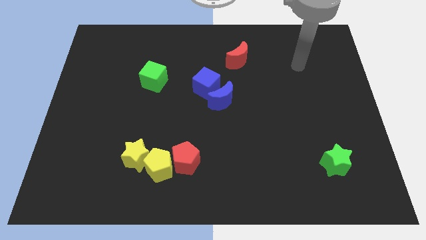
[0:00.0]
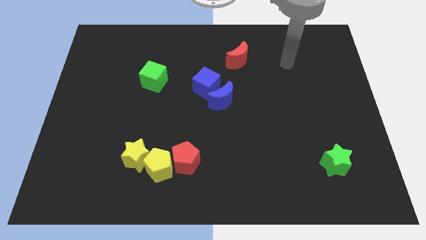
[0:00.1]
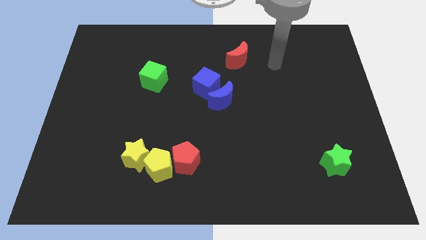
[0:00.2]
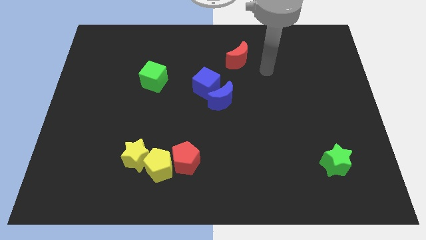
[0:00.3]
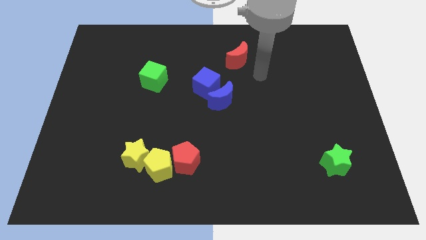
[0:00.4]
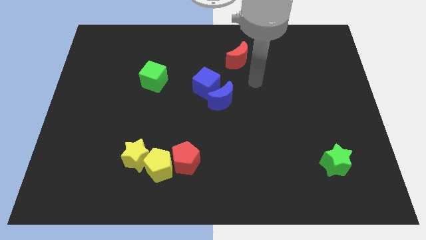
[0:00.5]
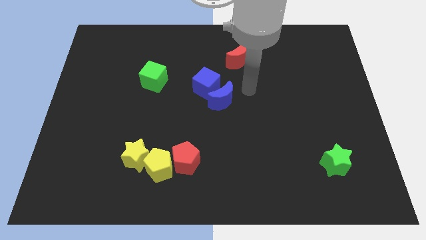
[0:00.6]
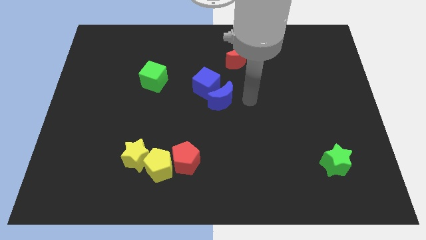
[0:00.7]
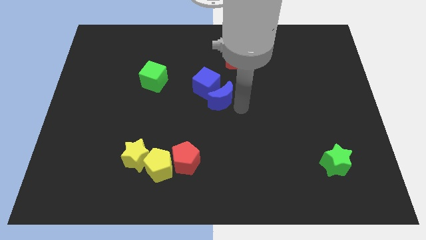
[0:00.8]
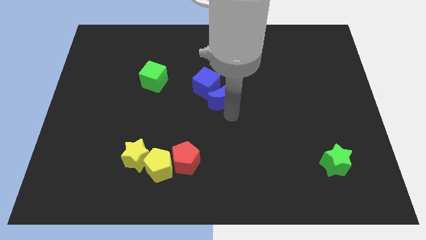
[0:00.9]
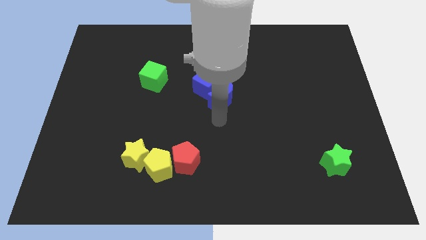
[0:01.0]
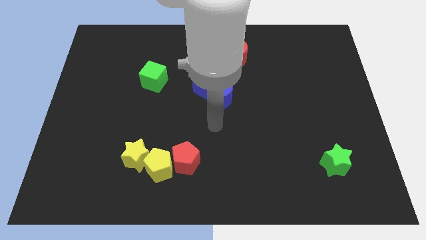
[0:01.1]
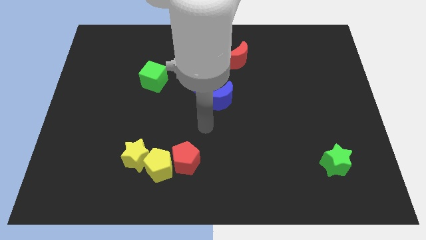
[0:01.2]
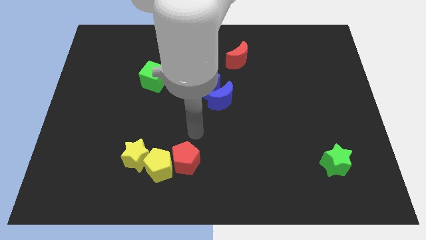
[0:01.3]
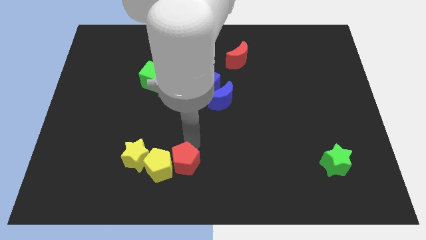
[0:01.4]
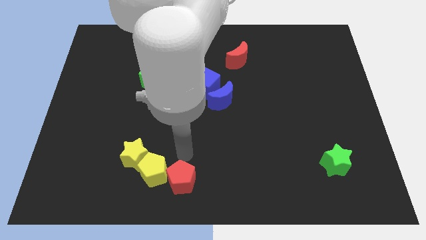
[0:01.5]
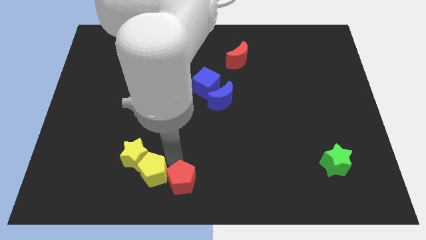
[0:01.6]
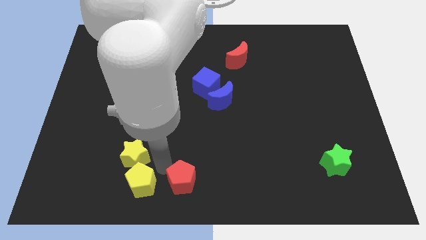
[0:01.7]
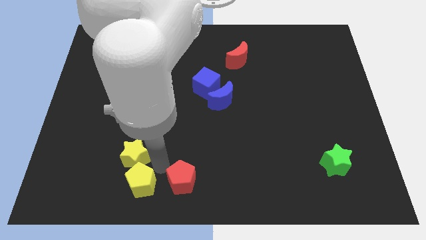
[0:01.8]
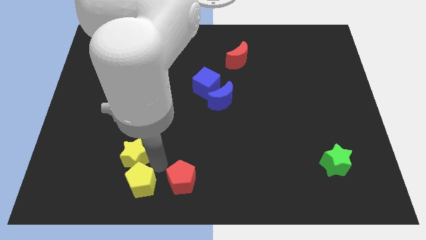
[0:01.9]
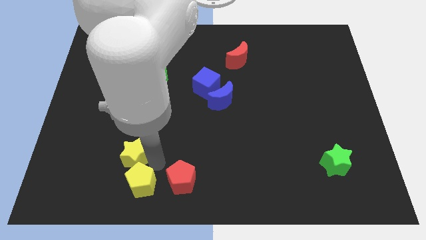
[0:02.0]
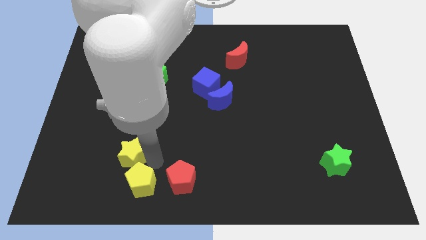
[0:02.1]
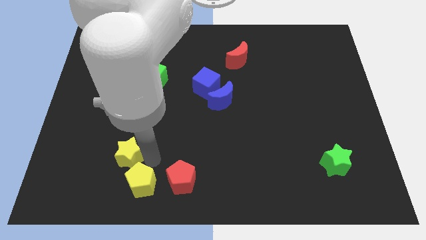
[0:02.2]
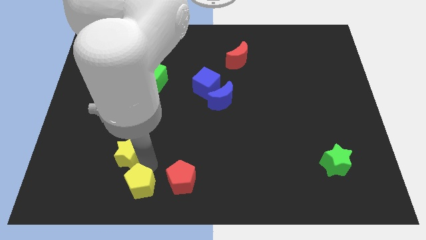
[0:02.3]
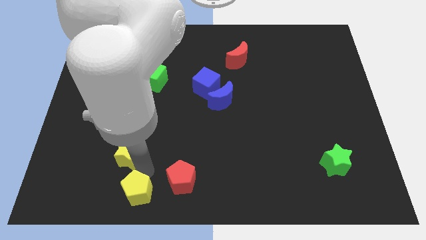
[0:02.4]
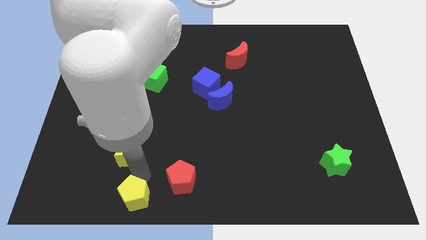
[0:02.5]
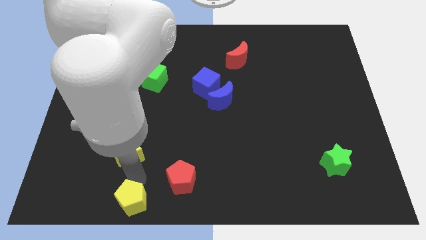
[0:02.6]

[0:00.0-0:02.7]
separate the yellow star from the yellow pentagon

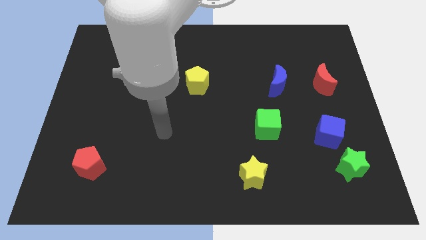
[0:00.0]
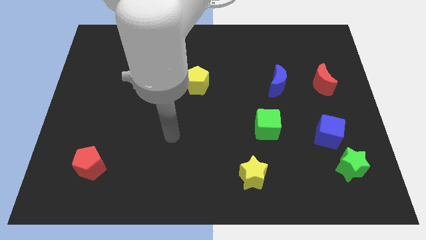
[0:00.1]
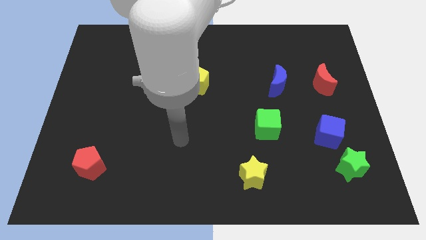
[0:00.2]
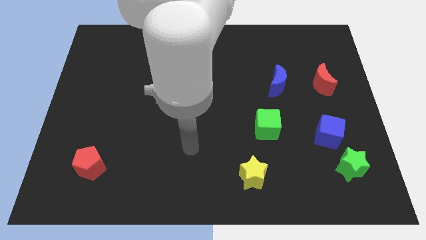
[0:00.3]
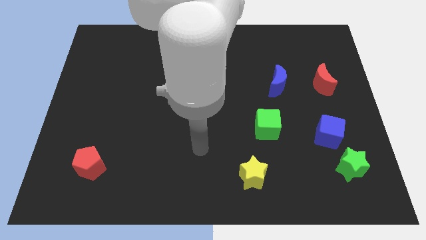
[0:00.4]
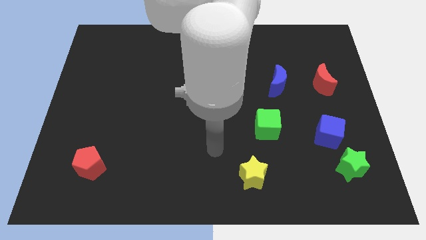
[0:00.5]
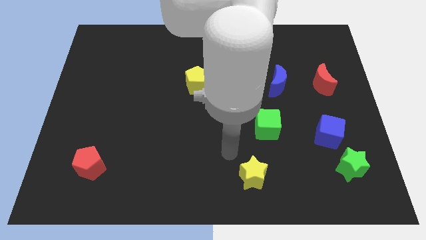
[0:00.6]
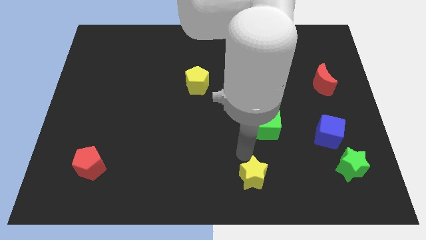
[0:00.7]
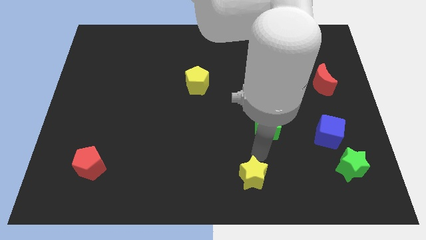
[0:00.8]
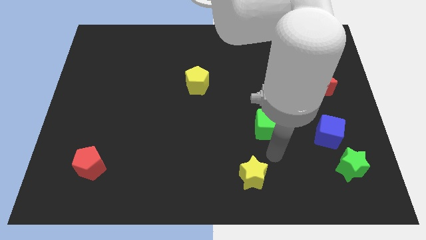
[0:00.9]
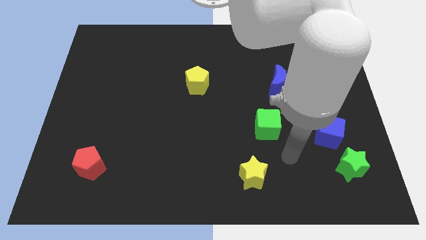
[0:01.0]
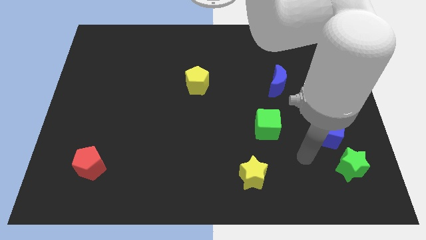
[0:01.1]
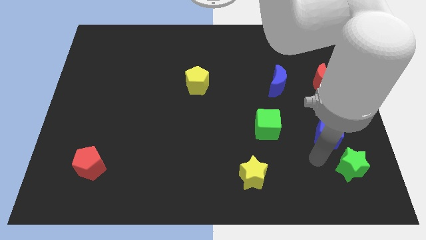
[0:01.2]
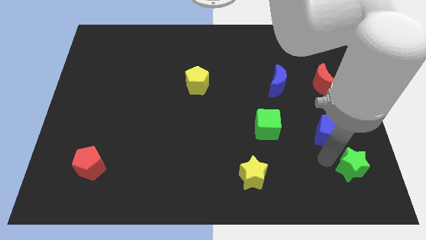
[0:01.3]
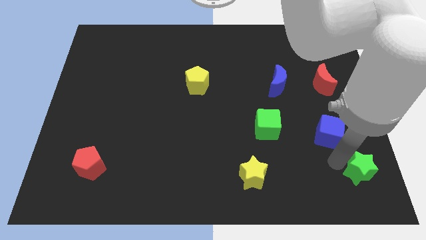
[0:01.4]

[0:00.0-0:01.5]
pull the blue cube apart from the green star

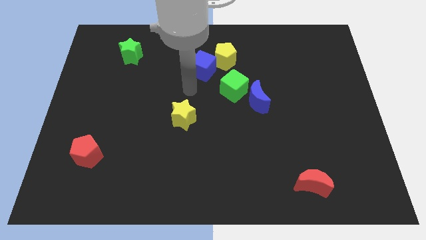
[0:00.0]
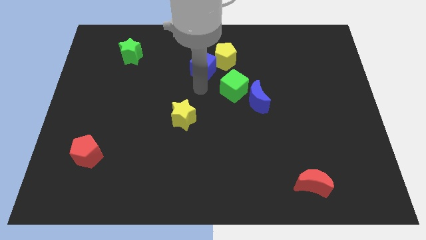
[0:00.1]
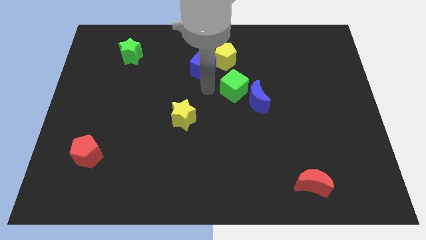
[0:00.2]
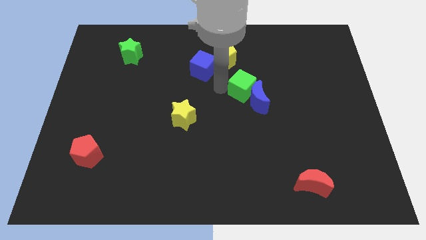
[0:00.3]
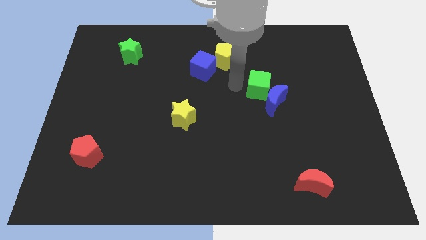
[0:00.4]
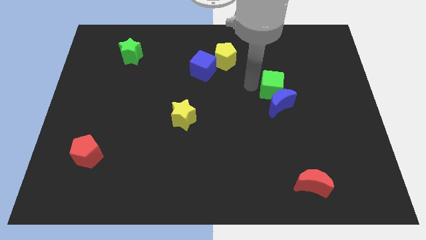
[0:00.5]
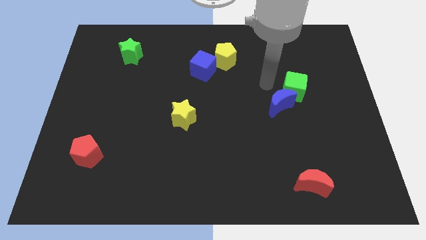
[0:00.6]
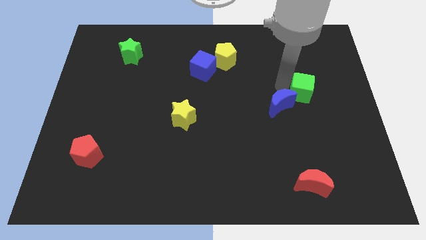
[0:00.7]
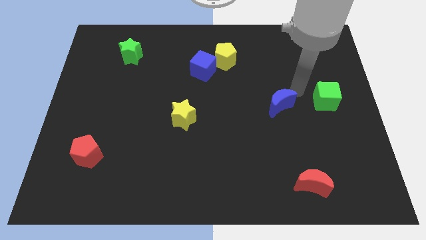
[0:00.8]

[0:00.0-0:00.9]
separate the blue moon from the green cube

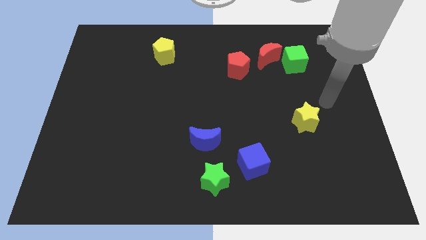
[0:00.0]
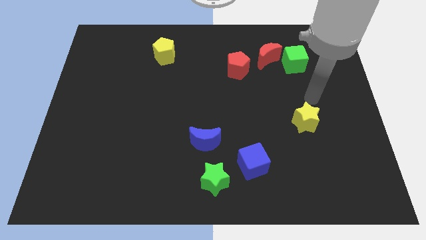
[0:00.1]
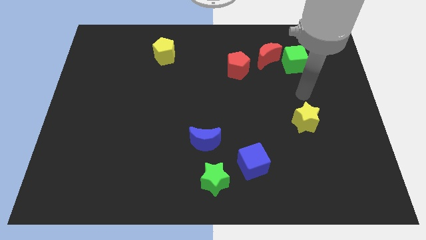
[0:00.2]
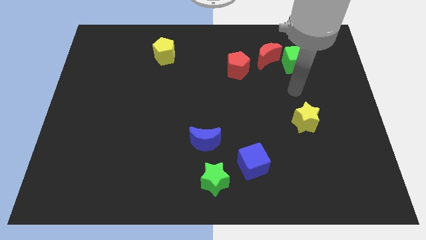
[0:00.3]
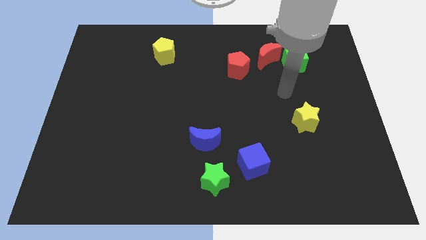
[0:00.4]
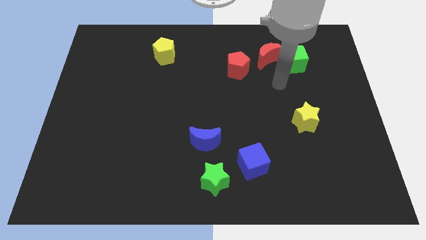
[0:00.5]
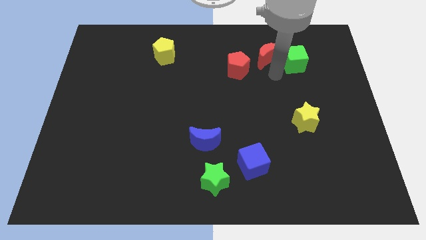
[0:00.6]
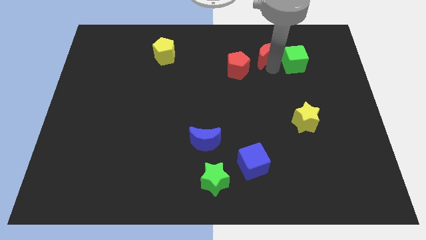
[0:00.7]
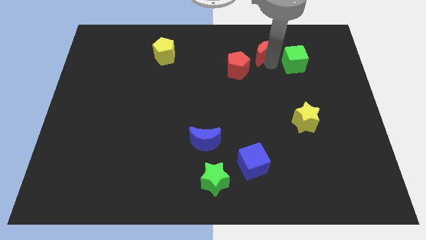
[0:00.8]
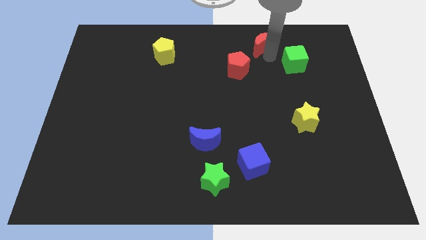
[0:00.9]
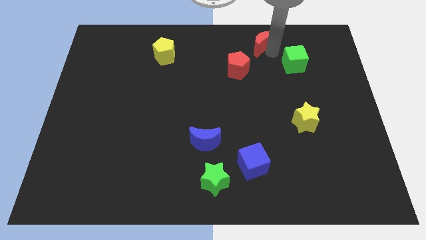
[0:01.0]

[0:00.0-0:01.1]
move the green cube away from the red moon

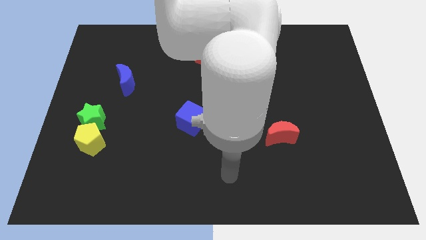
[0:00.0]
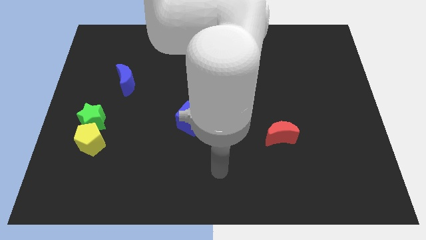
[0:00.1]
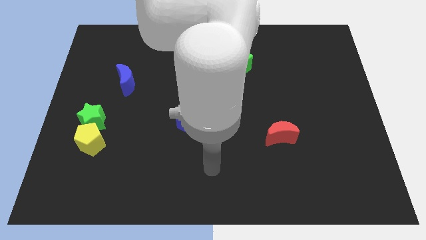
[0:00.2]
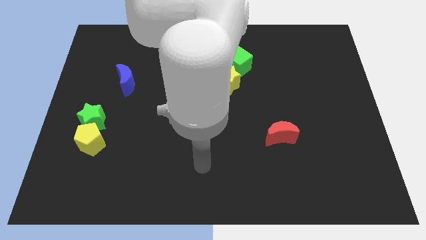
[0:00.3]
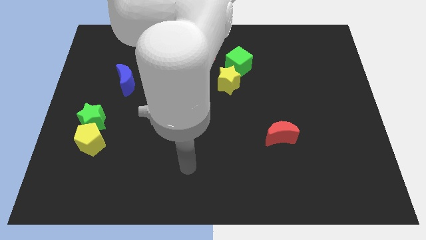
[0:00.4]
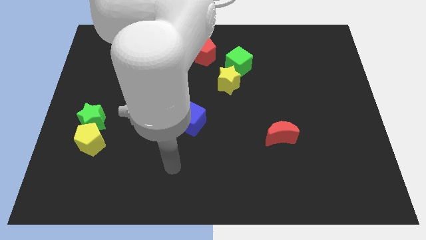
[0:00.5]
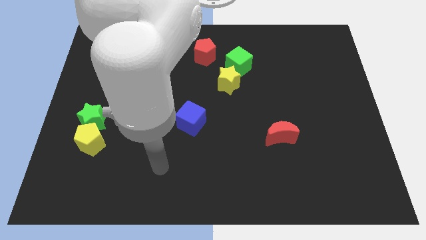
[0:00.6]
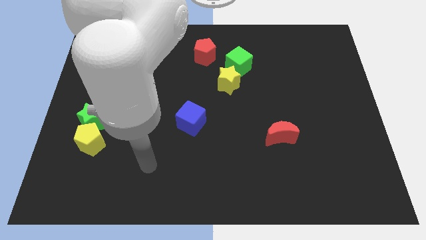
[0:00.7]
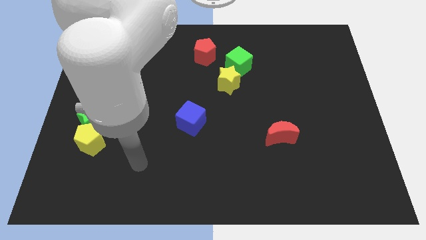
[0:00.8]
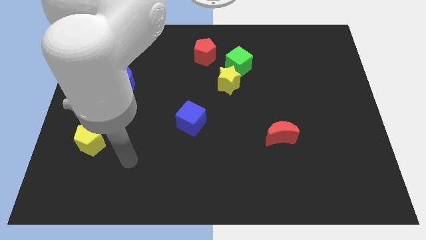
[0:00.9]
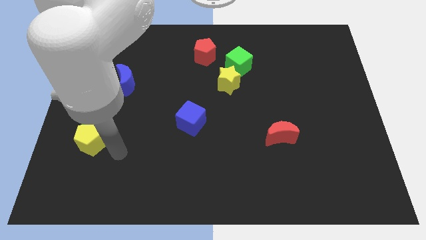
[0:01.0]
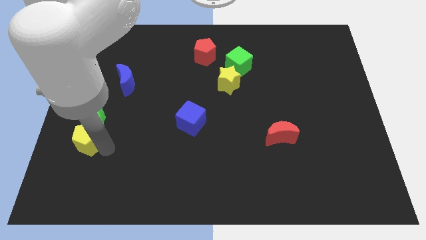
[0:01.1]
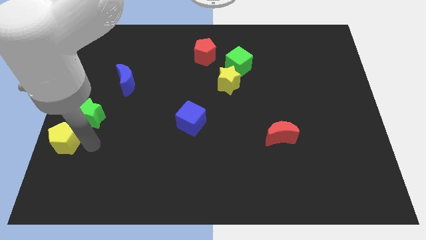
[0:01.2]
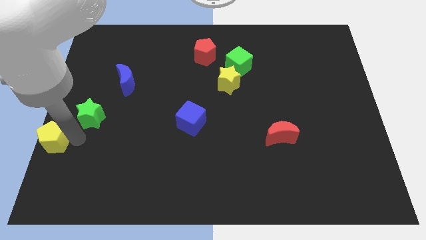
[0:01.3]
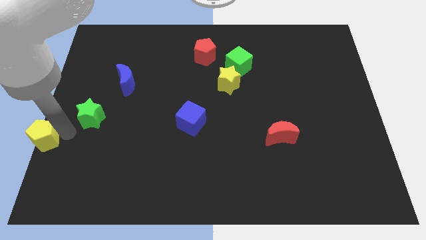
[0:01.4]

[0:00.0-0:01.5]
separate the green star from the yellow pentagon

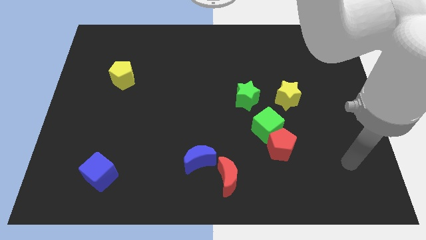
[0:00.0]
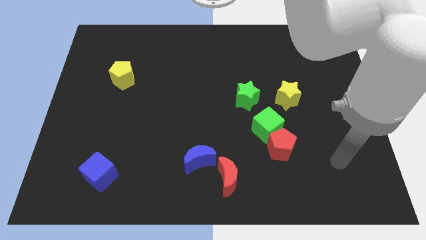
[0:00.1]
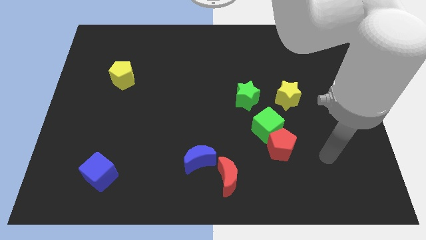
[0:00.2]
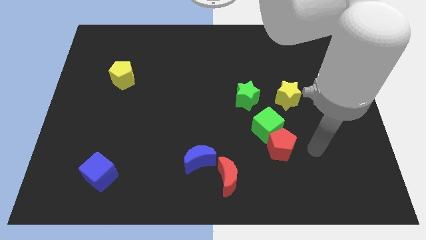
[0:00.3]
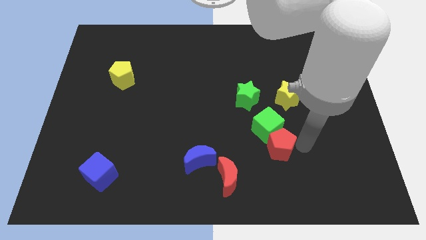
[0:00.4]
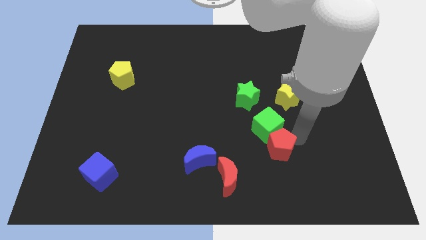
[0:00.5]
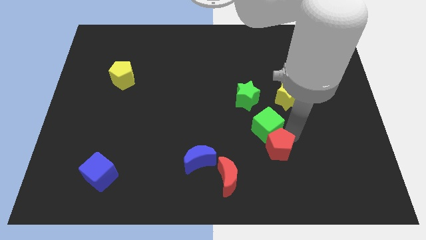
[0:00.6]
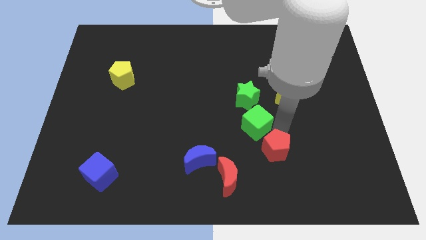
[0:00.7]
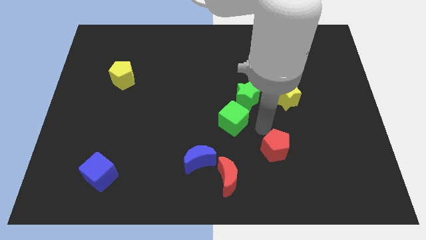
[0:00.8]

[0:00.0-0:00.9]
separate the red pentagon from the green cube

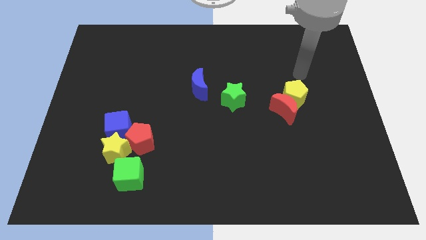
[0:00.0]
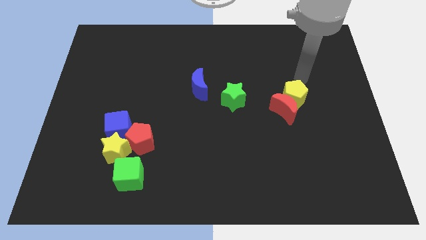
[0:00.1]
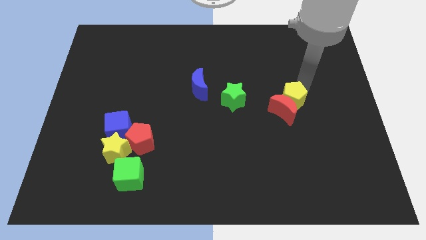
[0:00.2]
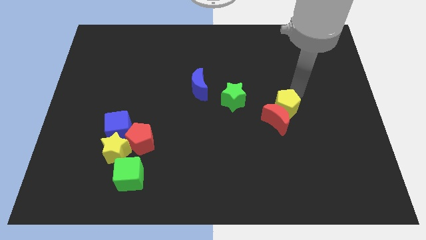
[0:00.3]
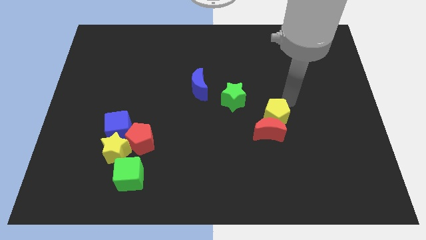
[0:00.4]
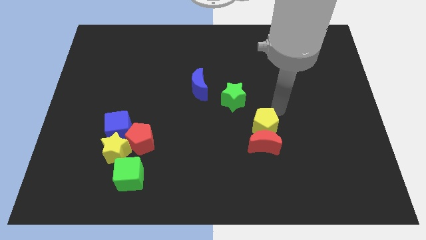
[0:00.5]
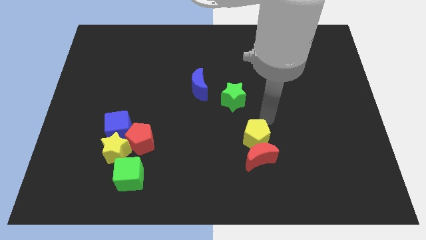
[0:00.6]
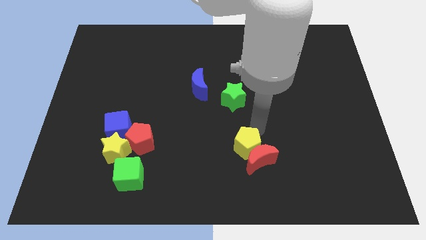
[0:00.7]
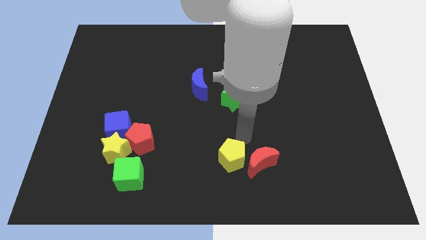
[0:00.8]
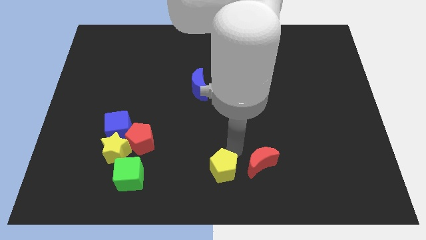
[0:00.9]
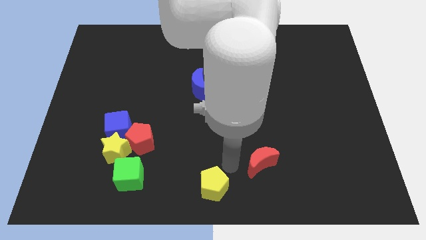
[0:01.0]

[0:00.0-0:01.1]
pull the red moon apart from the yellow pentagon
